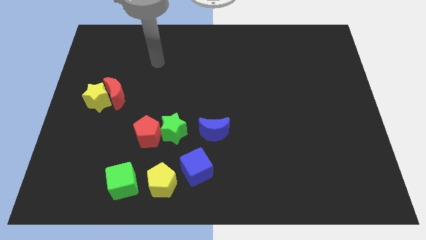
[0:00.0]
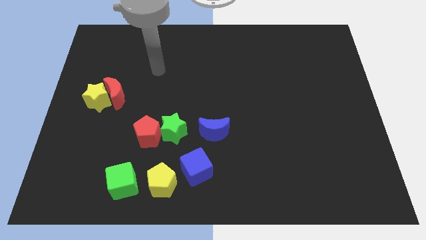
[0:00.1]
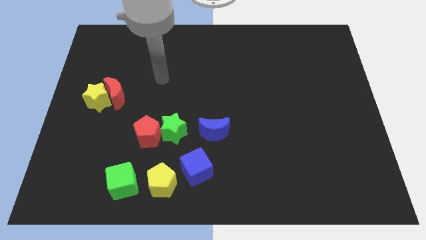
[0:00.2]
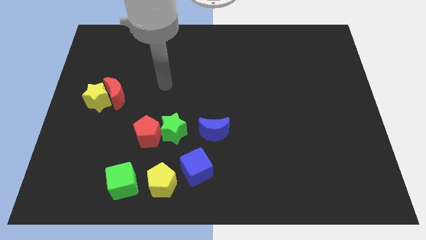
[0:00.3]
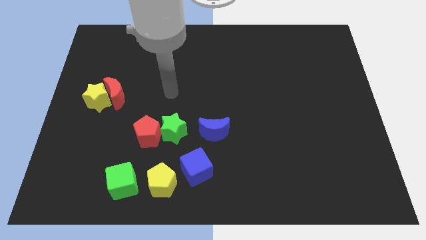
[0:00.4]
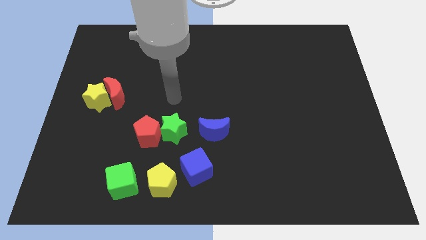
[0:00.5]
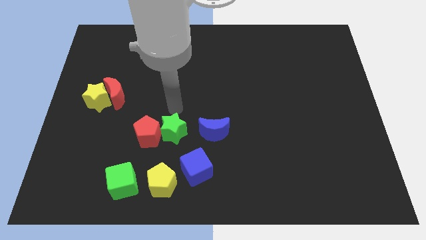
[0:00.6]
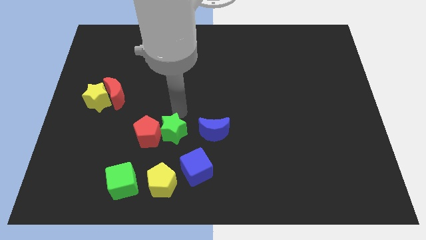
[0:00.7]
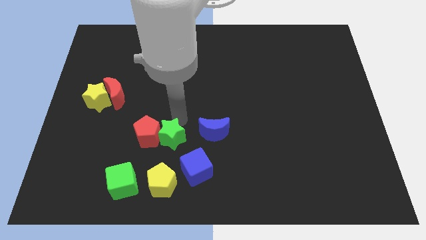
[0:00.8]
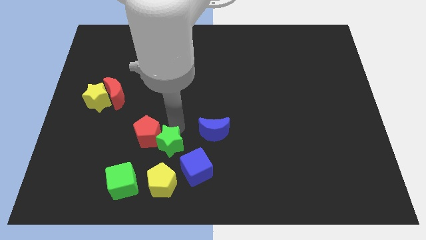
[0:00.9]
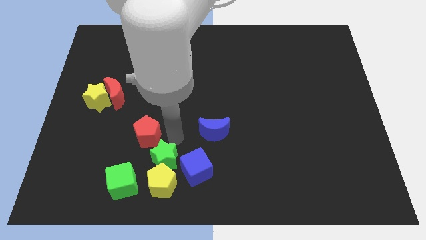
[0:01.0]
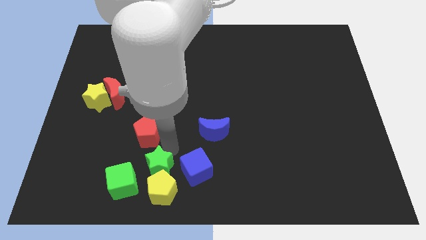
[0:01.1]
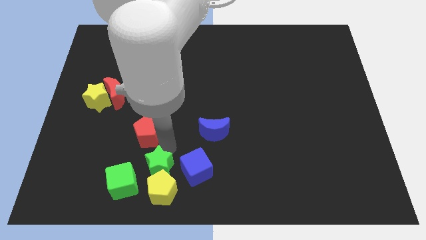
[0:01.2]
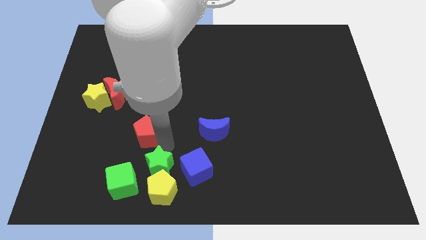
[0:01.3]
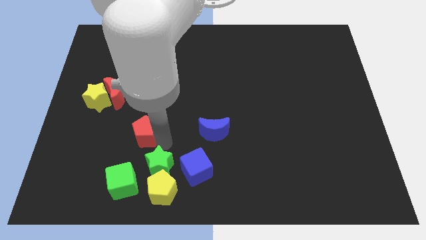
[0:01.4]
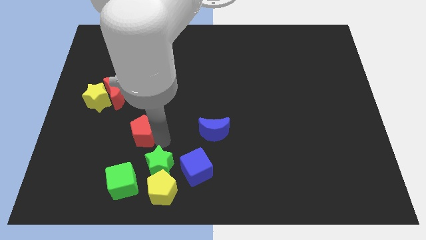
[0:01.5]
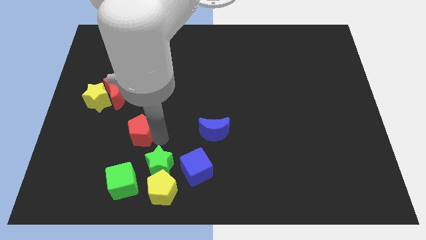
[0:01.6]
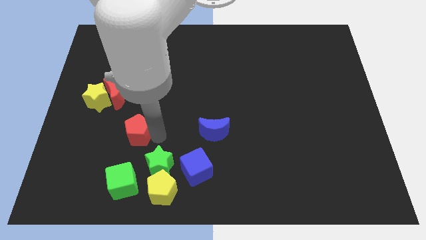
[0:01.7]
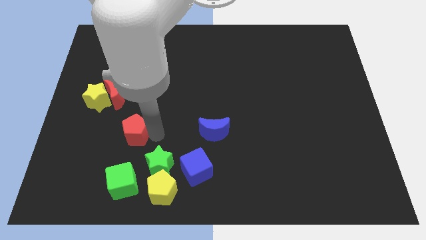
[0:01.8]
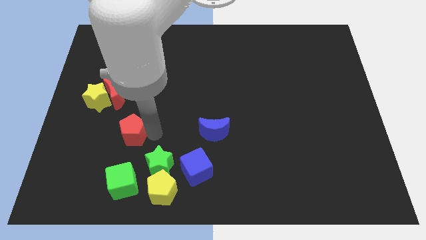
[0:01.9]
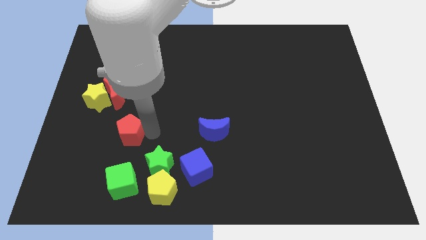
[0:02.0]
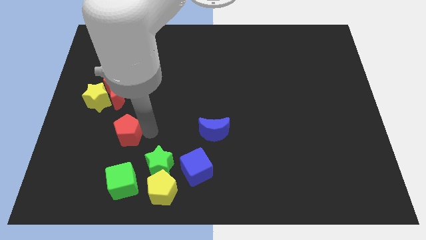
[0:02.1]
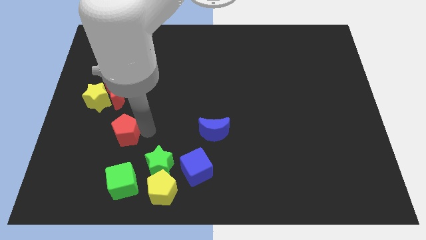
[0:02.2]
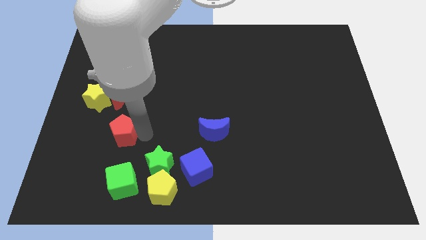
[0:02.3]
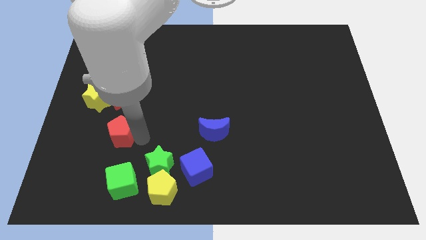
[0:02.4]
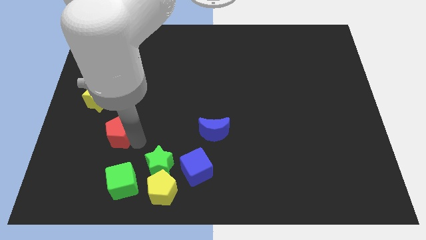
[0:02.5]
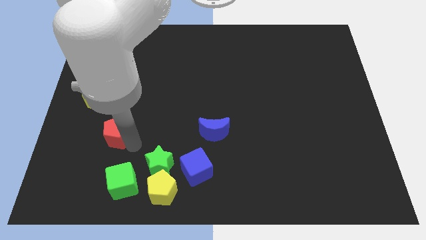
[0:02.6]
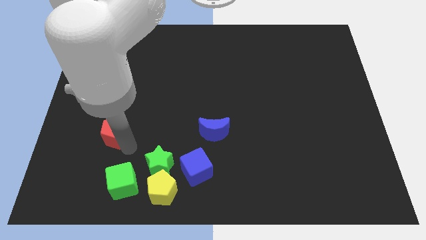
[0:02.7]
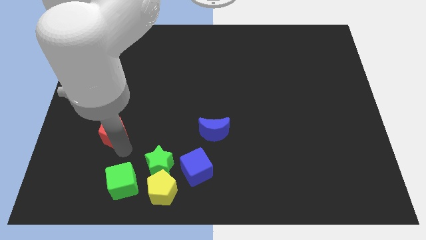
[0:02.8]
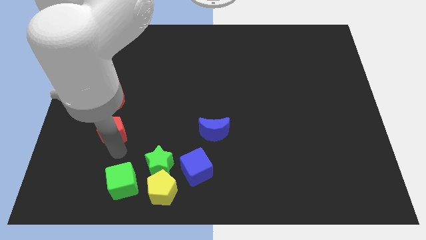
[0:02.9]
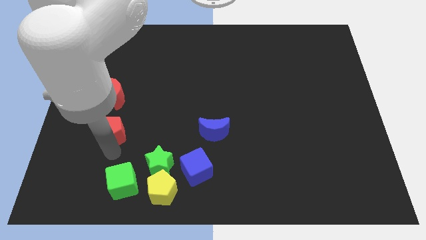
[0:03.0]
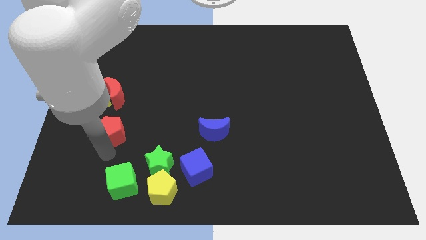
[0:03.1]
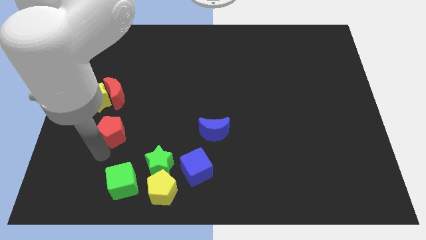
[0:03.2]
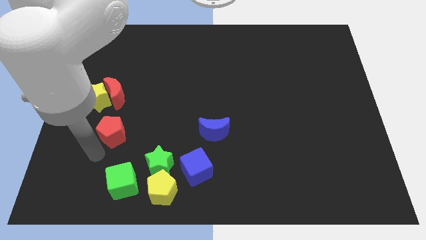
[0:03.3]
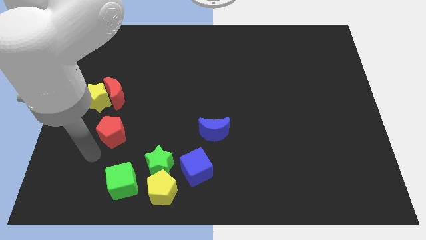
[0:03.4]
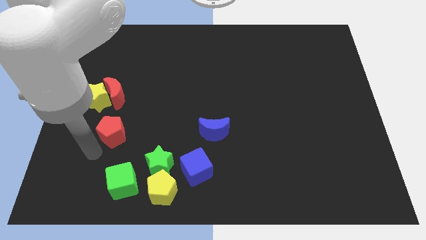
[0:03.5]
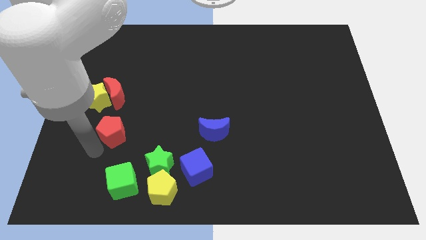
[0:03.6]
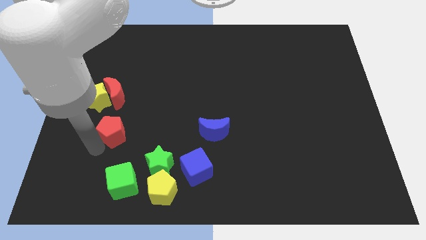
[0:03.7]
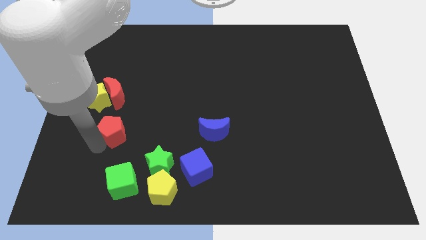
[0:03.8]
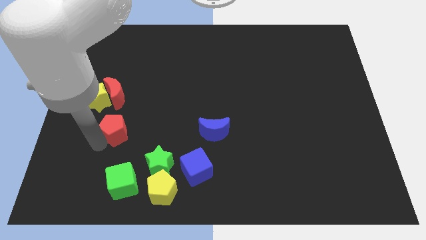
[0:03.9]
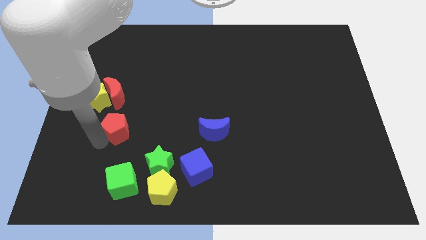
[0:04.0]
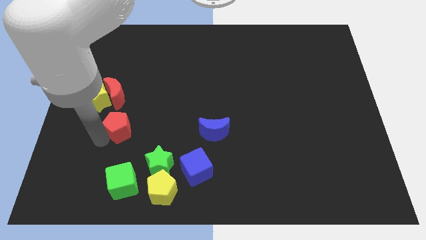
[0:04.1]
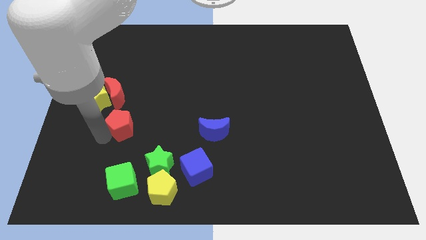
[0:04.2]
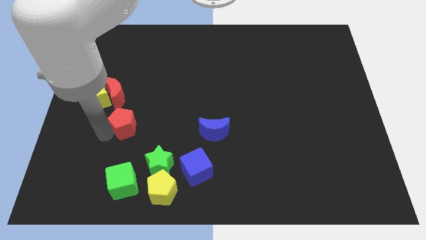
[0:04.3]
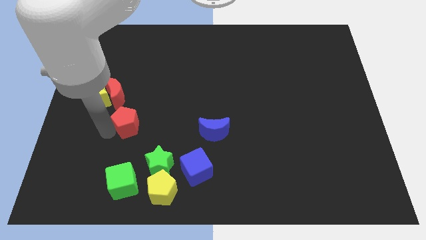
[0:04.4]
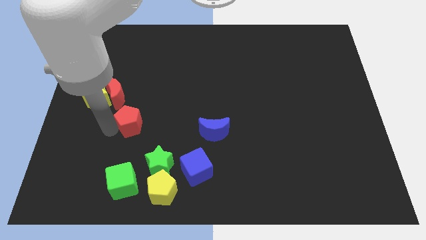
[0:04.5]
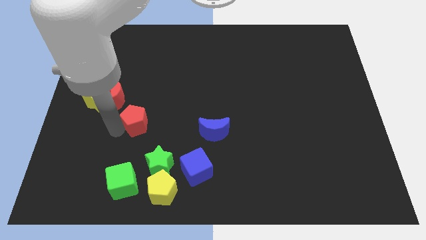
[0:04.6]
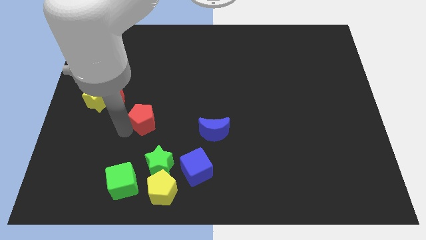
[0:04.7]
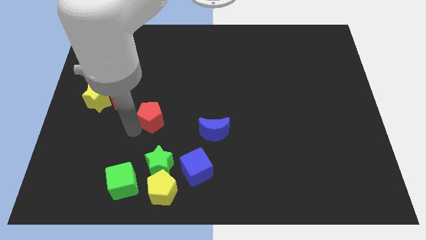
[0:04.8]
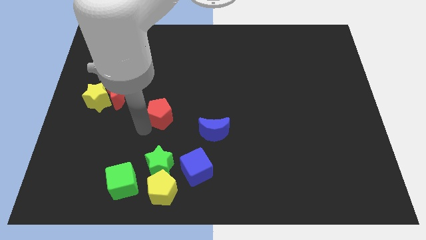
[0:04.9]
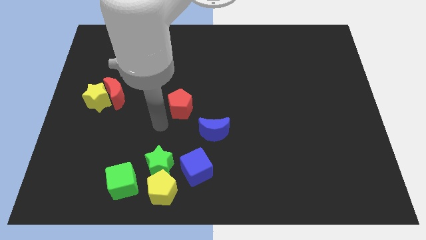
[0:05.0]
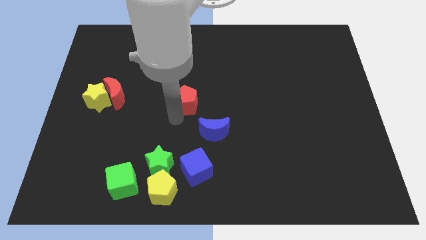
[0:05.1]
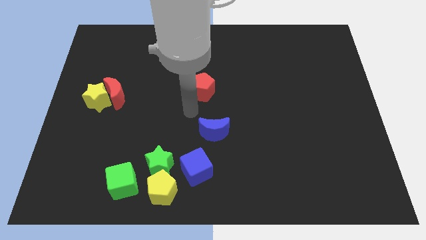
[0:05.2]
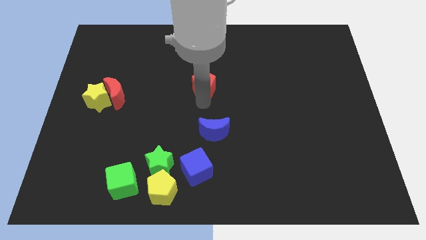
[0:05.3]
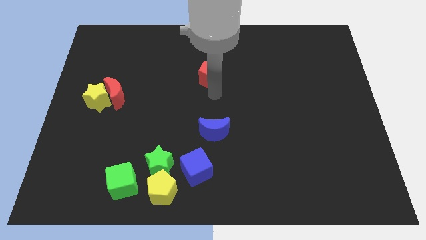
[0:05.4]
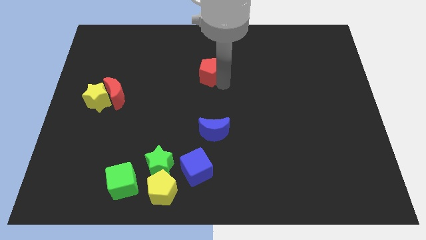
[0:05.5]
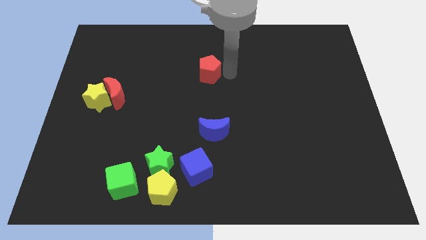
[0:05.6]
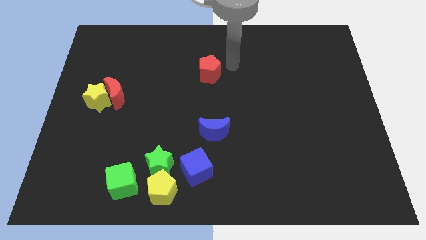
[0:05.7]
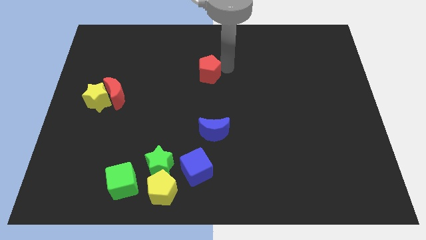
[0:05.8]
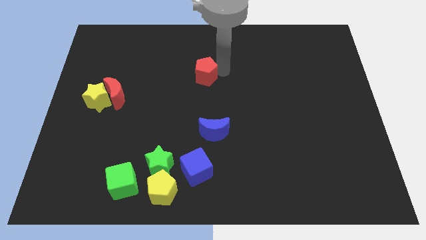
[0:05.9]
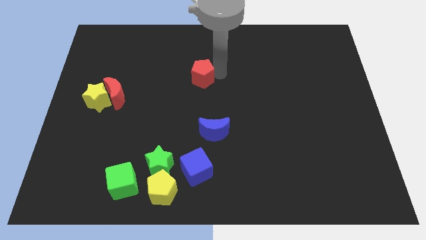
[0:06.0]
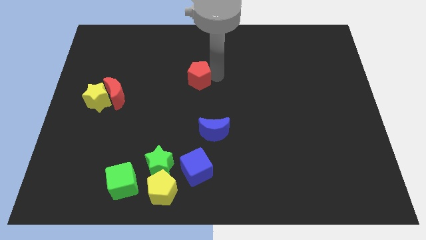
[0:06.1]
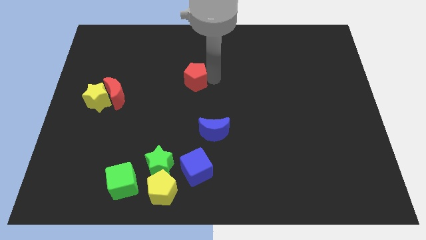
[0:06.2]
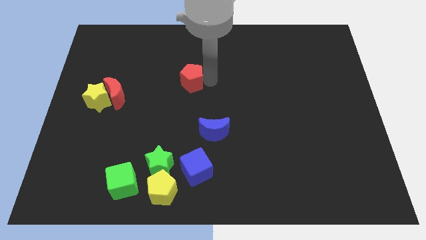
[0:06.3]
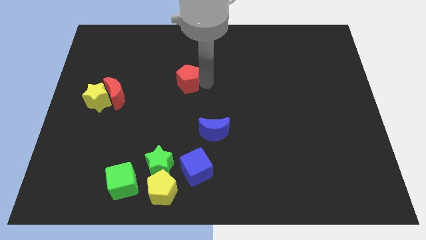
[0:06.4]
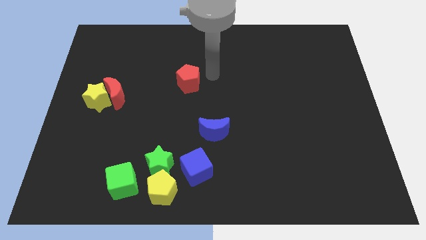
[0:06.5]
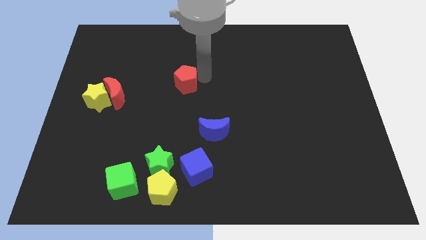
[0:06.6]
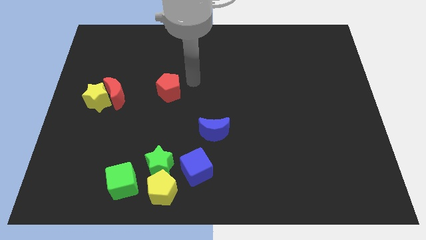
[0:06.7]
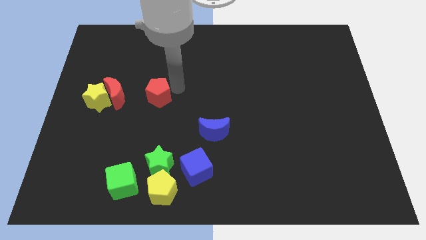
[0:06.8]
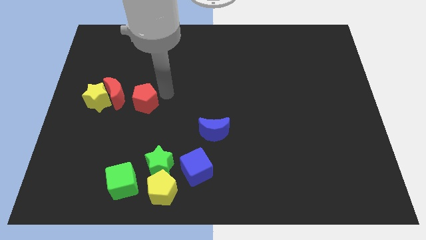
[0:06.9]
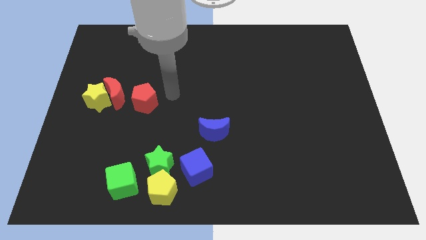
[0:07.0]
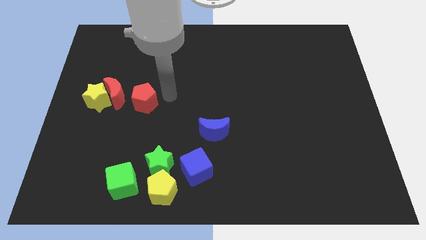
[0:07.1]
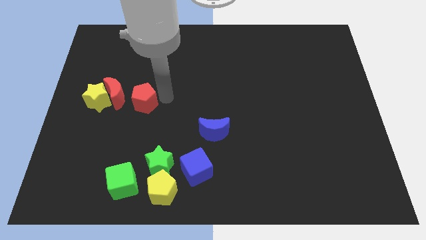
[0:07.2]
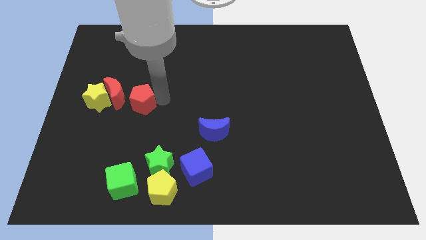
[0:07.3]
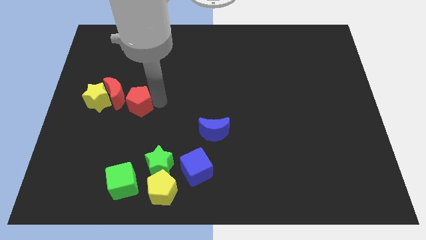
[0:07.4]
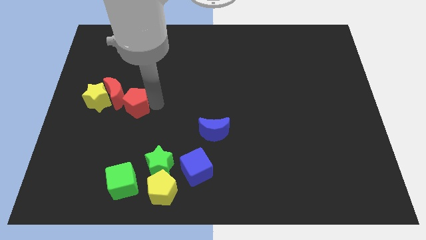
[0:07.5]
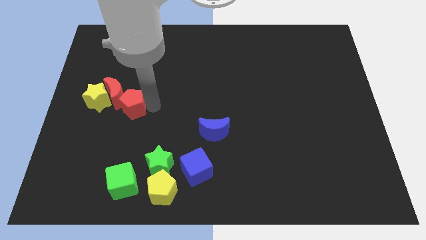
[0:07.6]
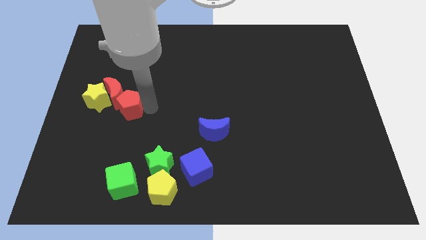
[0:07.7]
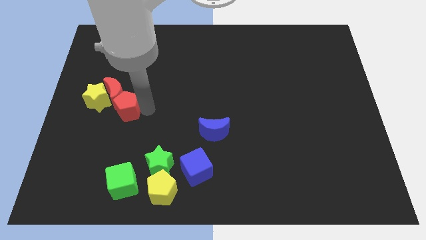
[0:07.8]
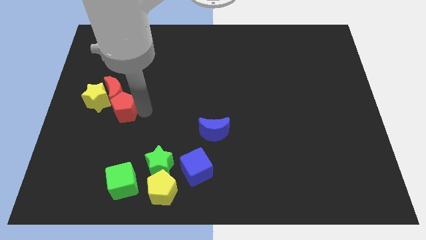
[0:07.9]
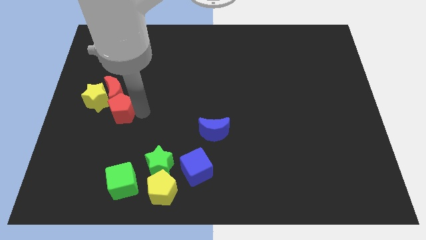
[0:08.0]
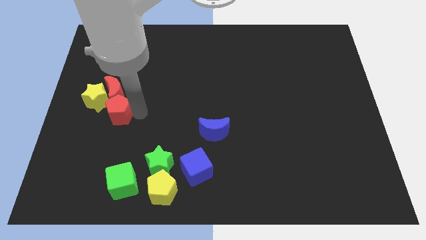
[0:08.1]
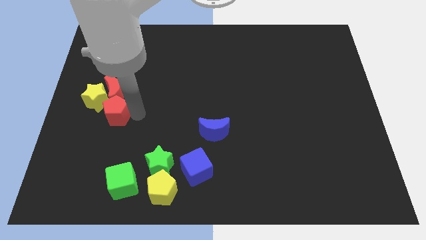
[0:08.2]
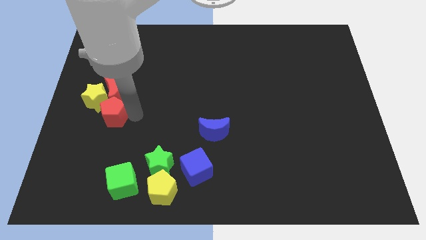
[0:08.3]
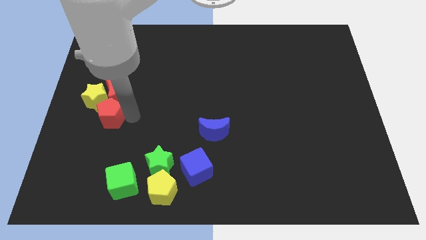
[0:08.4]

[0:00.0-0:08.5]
move the red pentagon close to the yellow star
